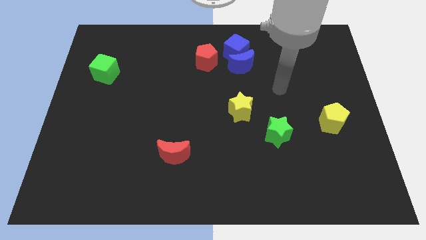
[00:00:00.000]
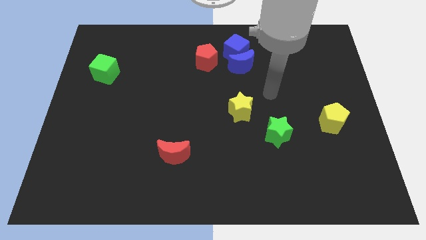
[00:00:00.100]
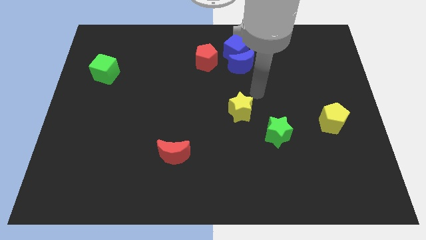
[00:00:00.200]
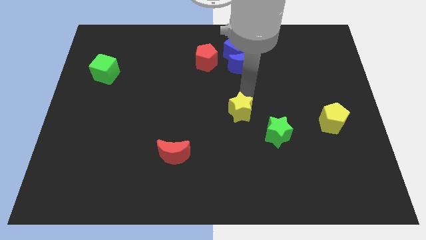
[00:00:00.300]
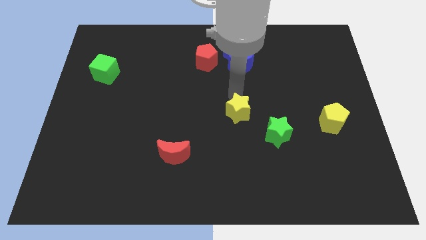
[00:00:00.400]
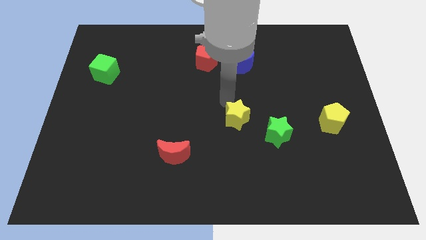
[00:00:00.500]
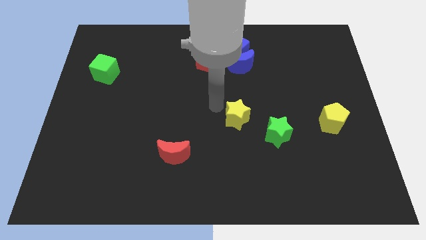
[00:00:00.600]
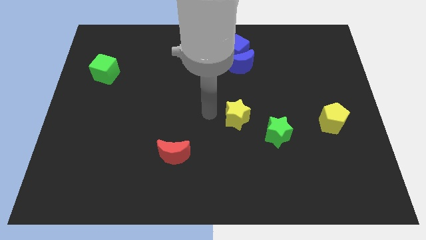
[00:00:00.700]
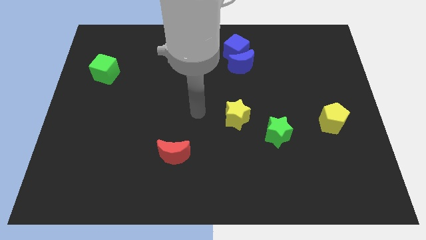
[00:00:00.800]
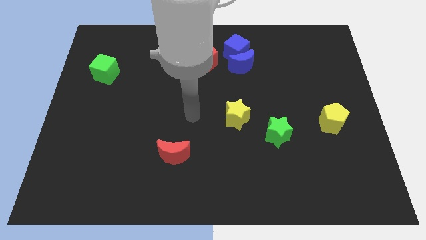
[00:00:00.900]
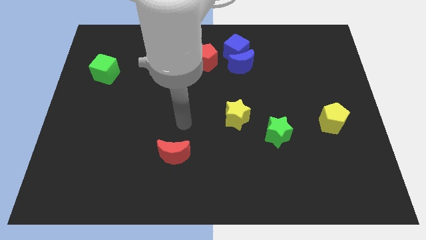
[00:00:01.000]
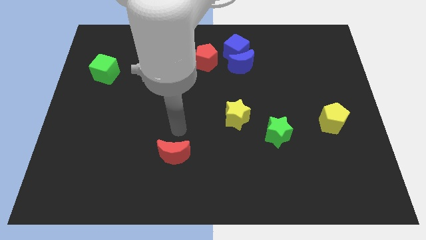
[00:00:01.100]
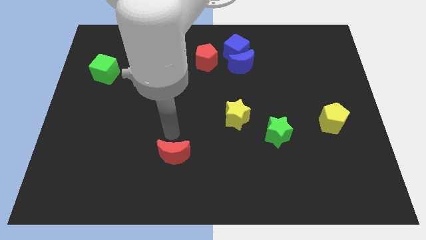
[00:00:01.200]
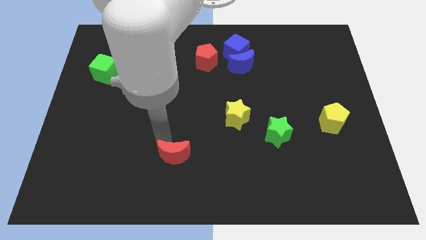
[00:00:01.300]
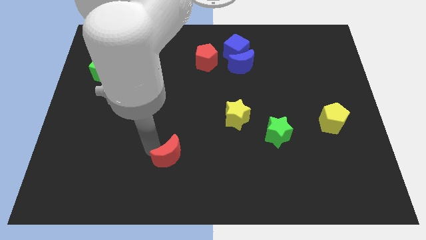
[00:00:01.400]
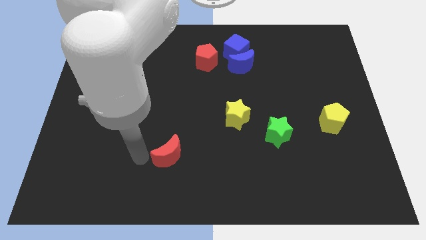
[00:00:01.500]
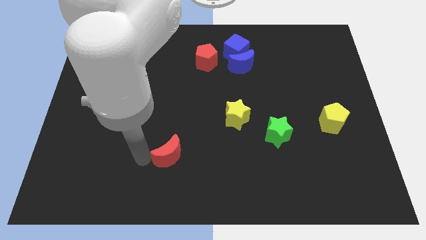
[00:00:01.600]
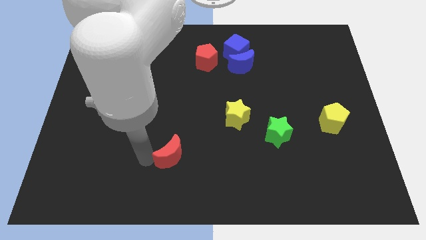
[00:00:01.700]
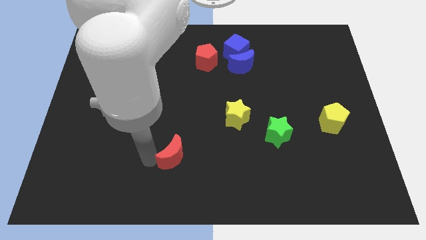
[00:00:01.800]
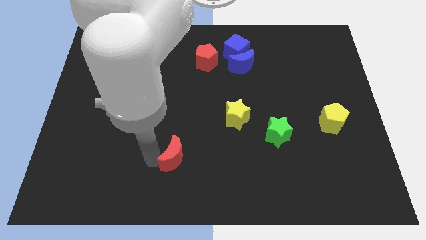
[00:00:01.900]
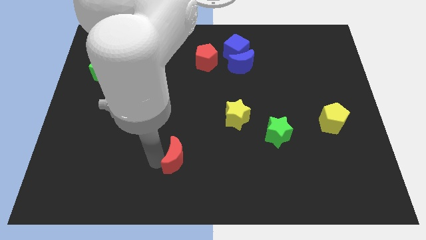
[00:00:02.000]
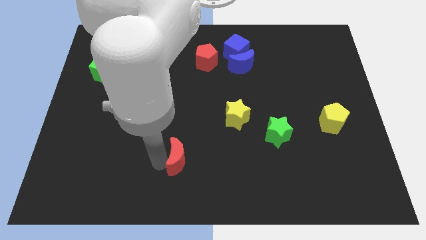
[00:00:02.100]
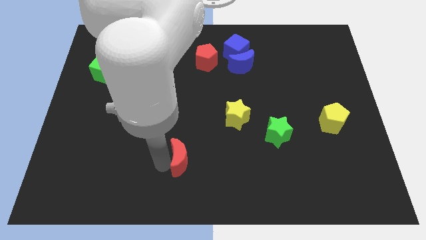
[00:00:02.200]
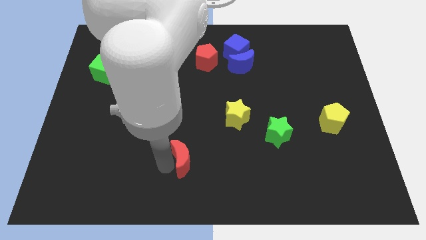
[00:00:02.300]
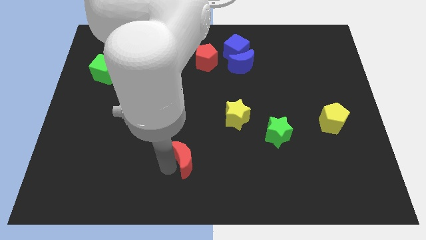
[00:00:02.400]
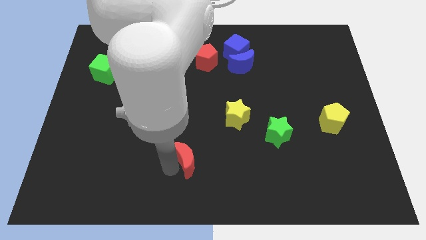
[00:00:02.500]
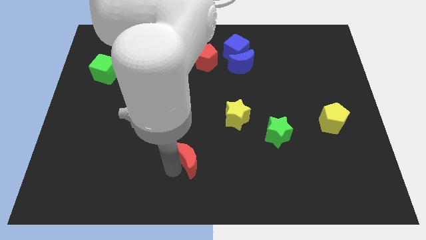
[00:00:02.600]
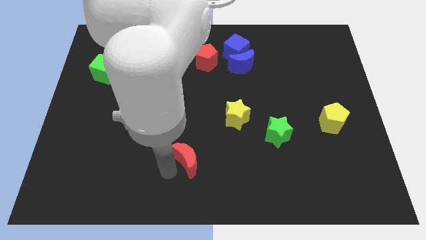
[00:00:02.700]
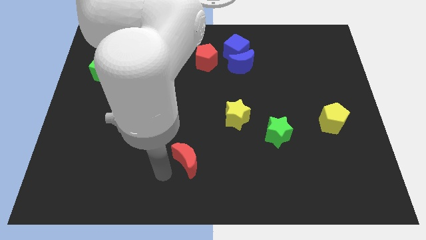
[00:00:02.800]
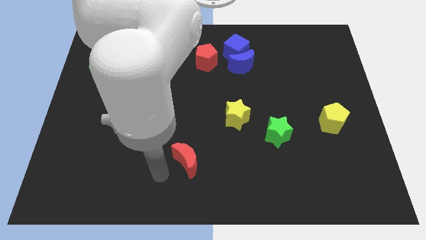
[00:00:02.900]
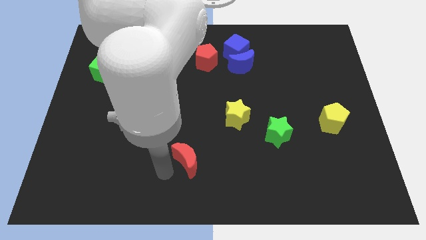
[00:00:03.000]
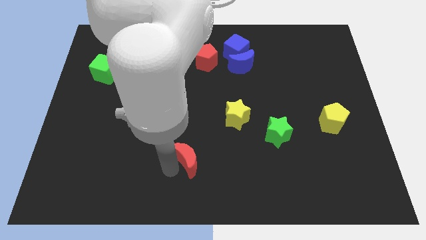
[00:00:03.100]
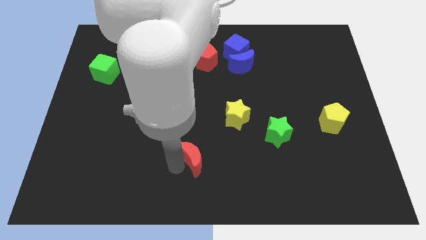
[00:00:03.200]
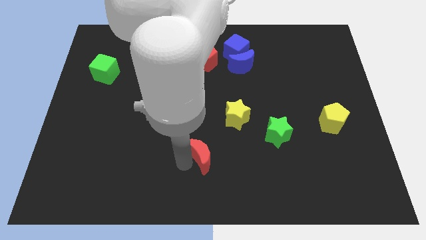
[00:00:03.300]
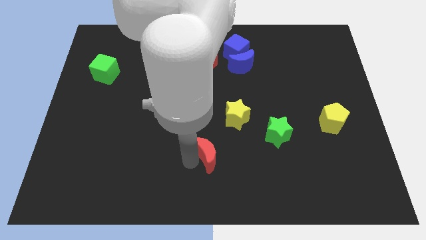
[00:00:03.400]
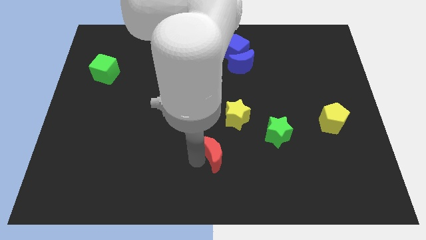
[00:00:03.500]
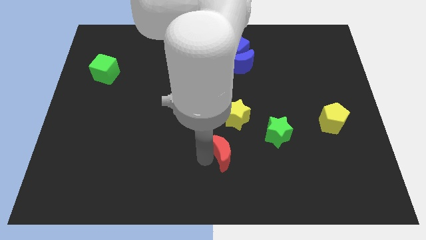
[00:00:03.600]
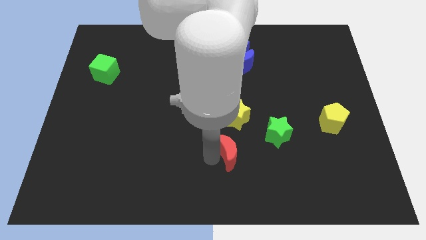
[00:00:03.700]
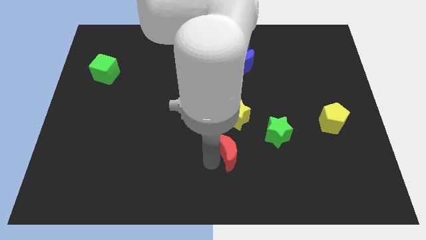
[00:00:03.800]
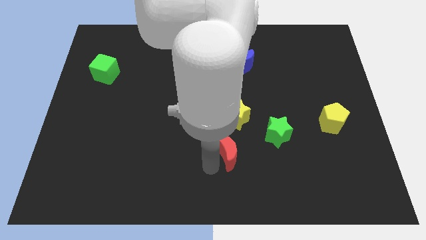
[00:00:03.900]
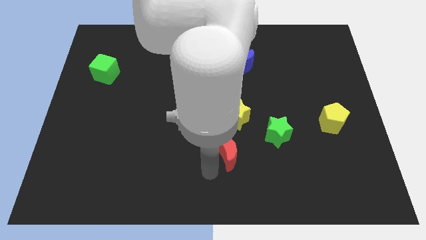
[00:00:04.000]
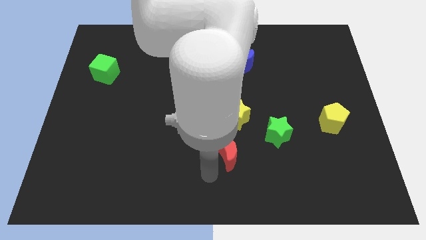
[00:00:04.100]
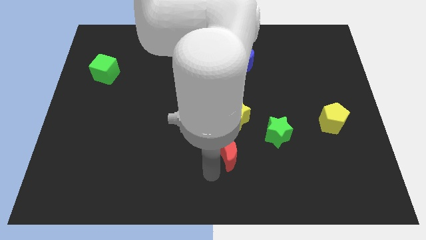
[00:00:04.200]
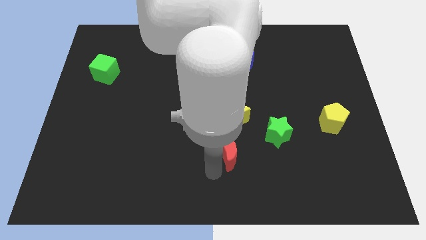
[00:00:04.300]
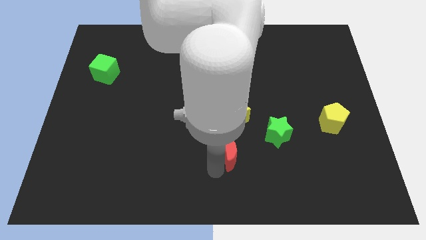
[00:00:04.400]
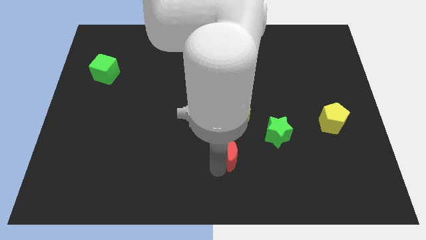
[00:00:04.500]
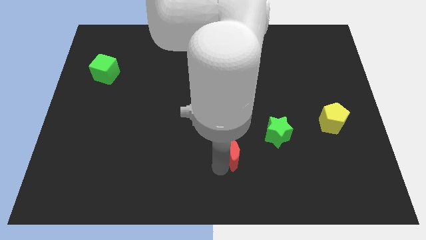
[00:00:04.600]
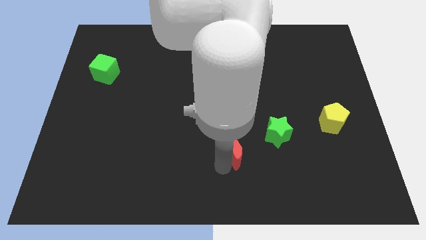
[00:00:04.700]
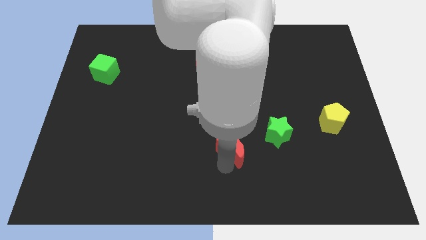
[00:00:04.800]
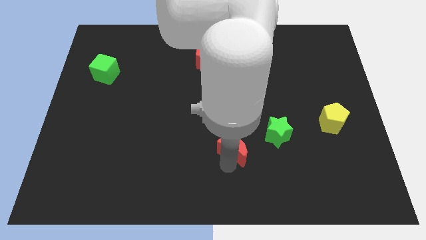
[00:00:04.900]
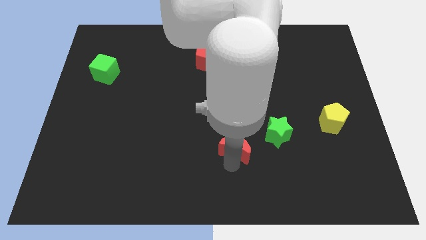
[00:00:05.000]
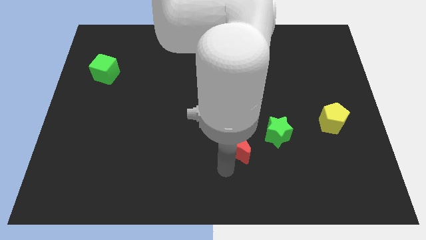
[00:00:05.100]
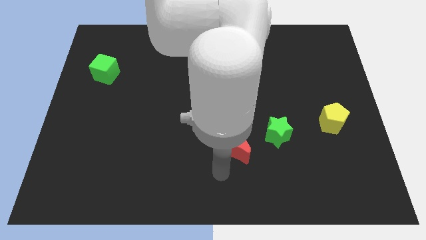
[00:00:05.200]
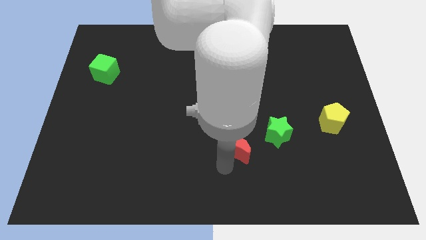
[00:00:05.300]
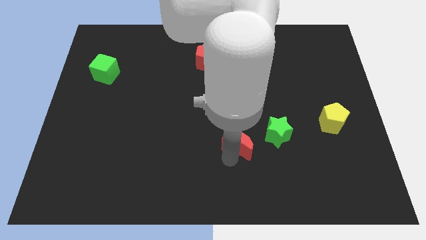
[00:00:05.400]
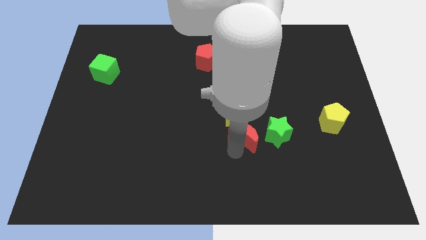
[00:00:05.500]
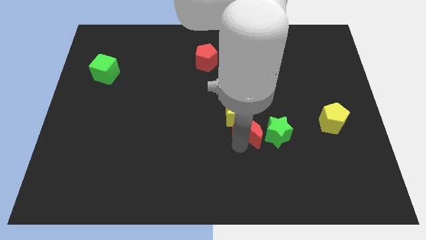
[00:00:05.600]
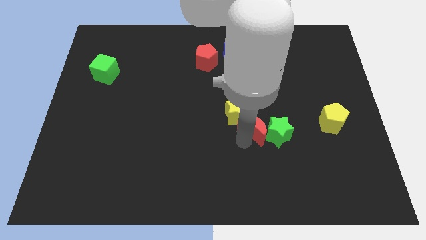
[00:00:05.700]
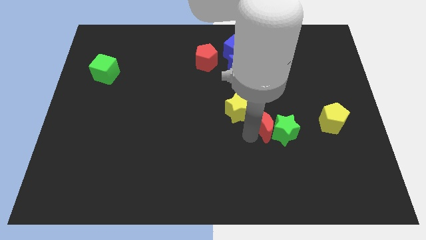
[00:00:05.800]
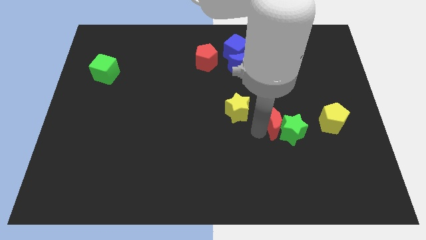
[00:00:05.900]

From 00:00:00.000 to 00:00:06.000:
put the red moon above the green star

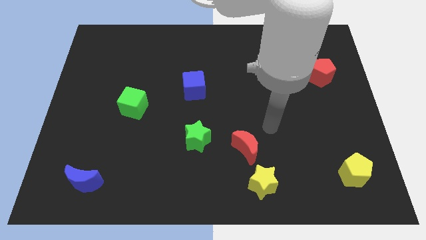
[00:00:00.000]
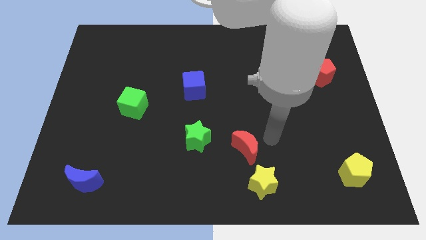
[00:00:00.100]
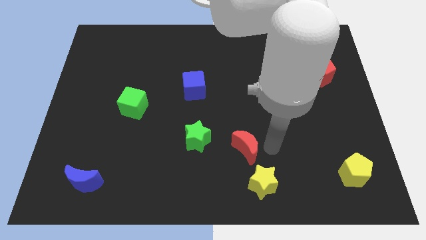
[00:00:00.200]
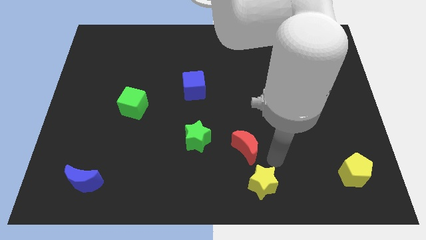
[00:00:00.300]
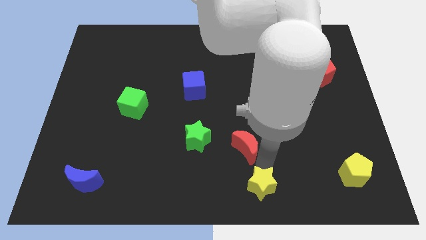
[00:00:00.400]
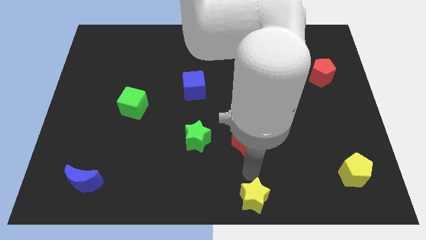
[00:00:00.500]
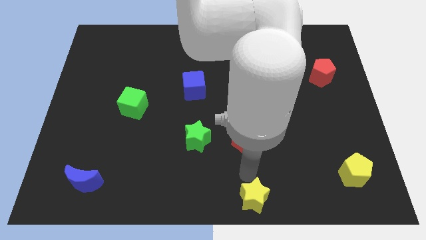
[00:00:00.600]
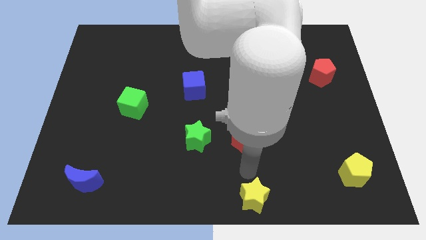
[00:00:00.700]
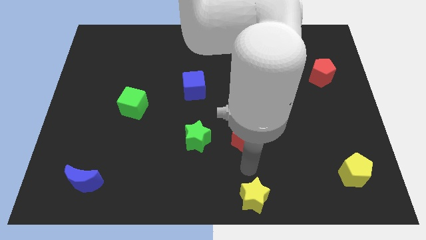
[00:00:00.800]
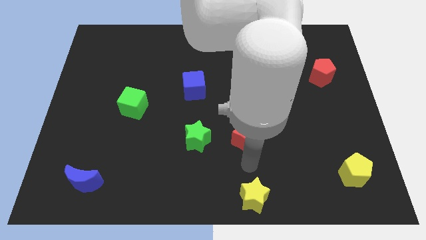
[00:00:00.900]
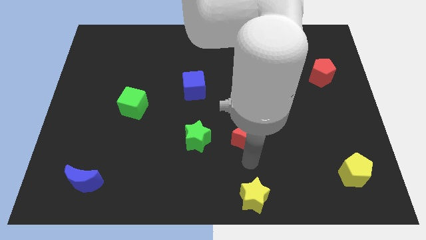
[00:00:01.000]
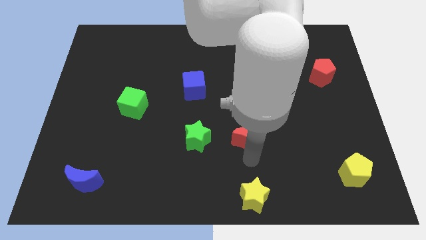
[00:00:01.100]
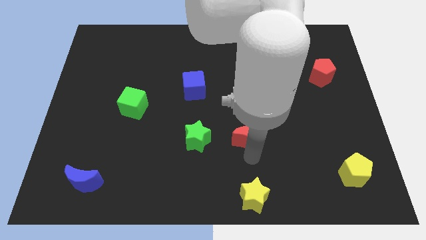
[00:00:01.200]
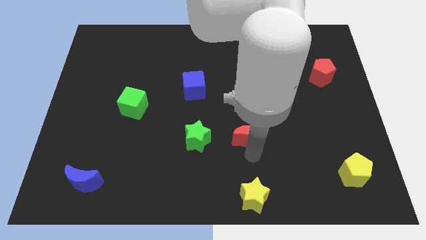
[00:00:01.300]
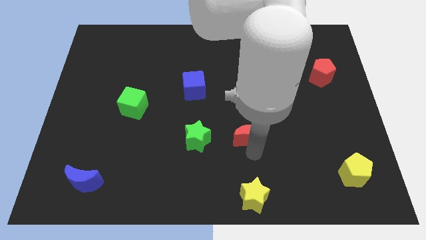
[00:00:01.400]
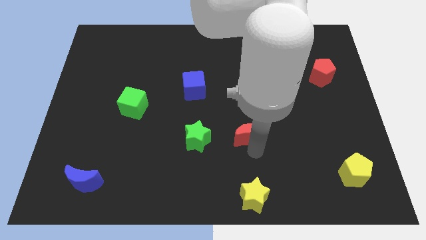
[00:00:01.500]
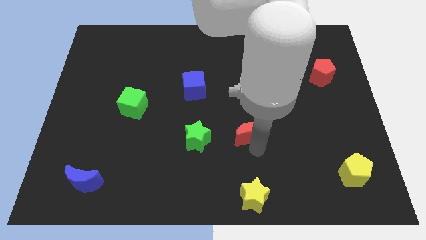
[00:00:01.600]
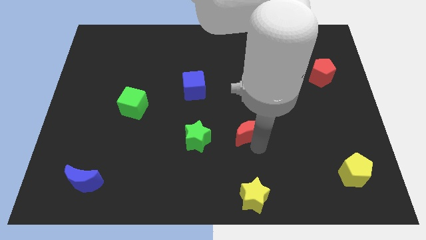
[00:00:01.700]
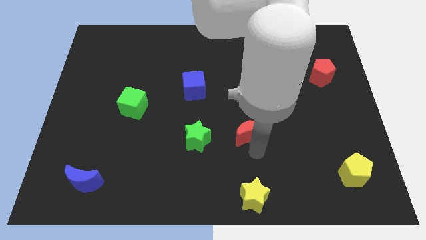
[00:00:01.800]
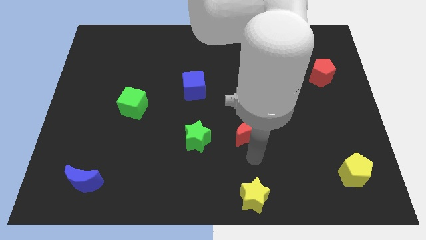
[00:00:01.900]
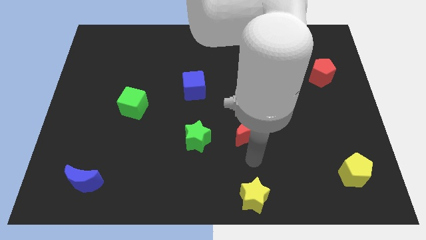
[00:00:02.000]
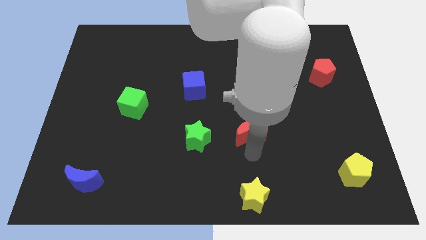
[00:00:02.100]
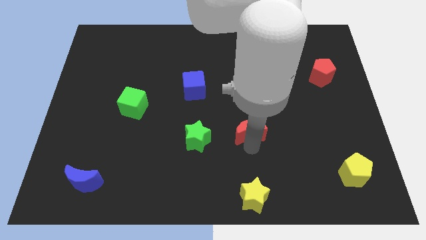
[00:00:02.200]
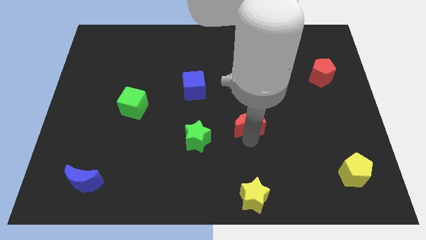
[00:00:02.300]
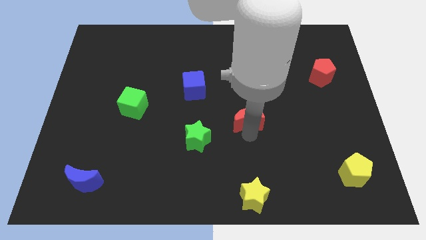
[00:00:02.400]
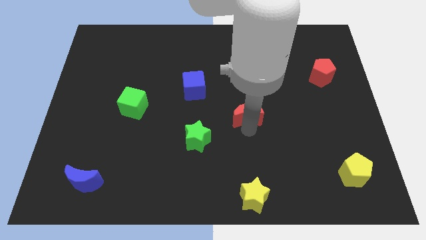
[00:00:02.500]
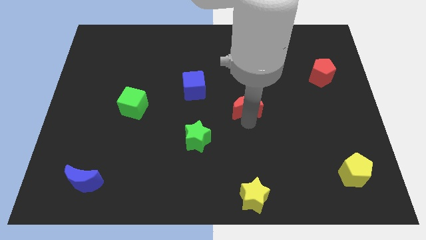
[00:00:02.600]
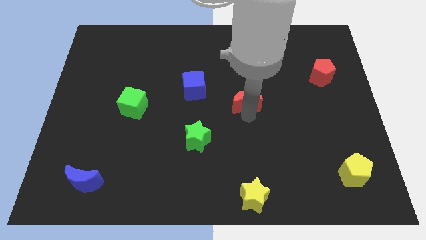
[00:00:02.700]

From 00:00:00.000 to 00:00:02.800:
move the red moon to the right of the blue cube

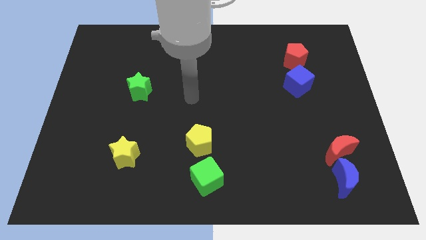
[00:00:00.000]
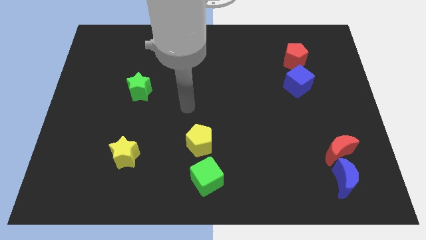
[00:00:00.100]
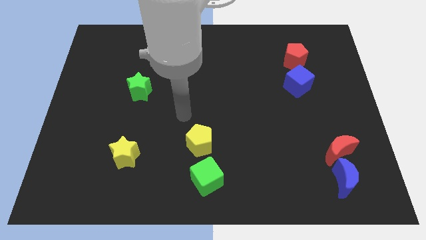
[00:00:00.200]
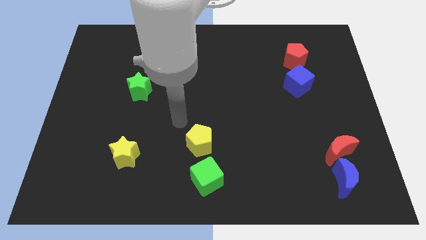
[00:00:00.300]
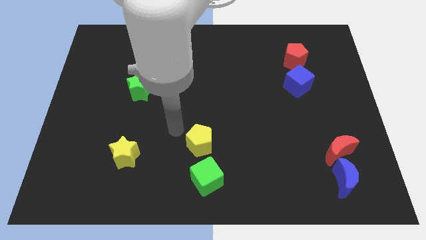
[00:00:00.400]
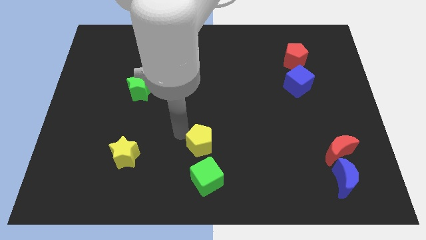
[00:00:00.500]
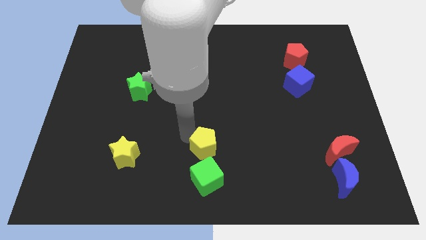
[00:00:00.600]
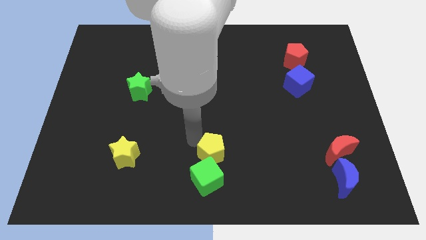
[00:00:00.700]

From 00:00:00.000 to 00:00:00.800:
move the yellow pentagon diagonally up and to the right of the green cube
